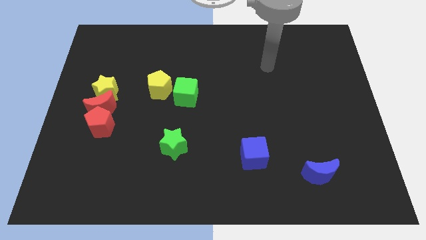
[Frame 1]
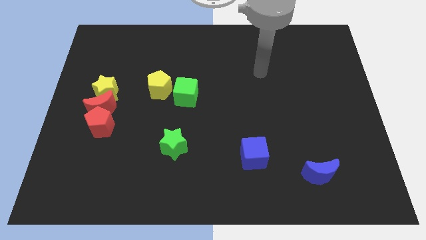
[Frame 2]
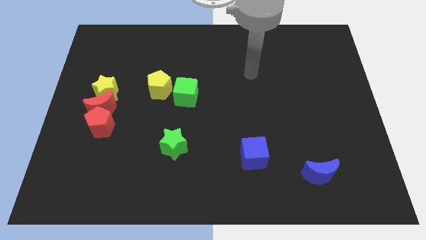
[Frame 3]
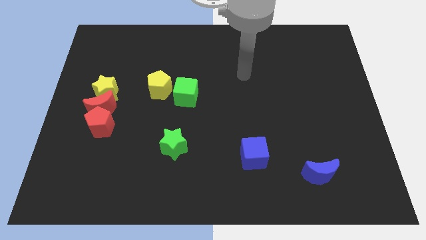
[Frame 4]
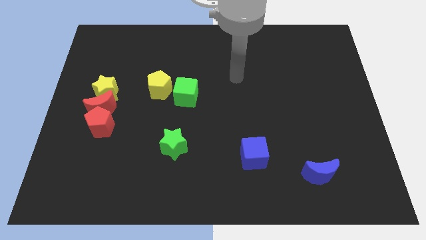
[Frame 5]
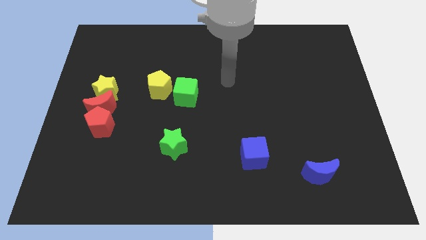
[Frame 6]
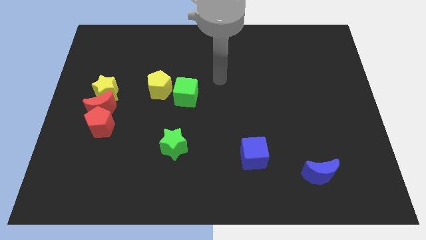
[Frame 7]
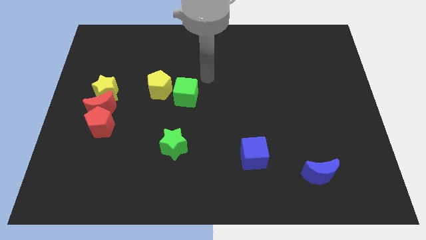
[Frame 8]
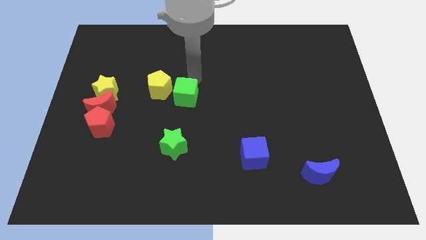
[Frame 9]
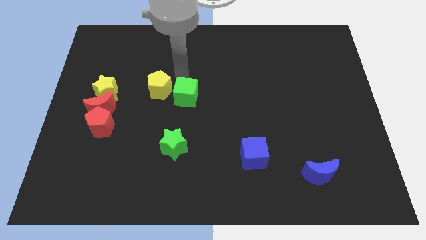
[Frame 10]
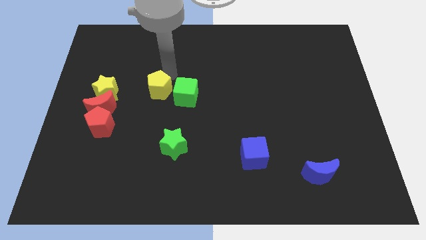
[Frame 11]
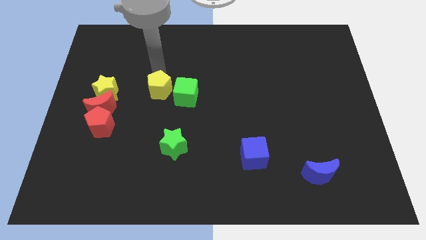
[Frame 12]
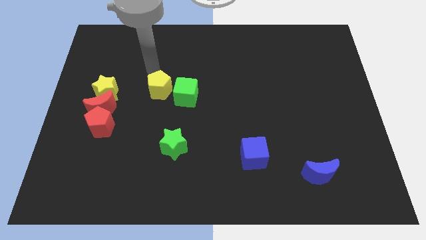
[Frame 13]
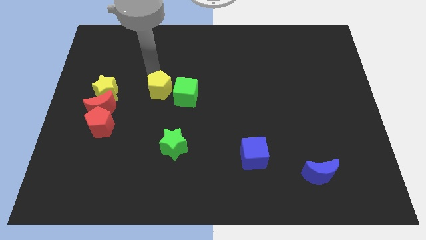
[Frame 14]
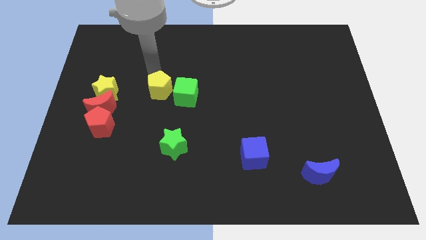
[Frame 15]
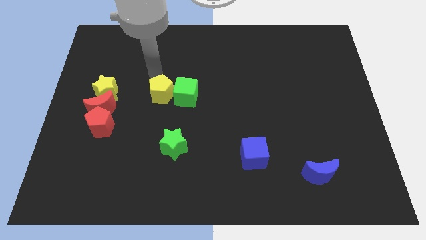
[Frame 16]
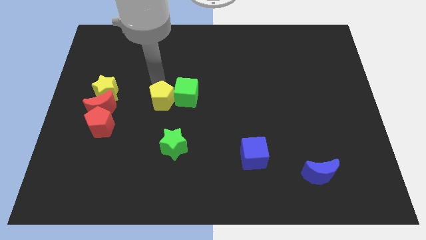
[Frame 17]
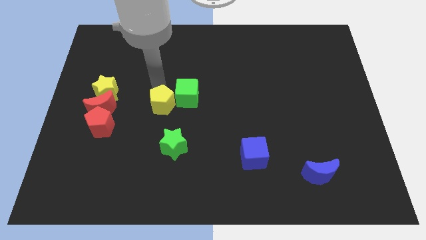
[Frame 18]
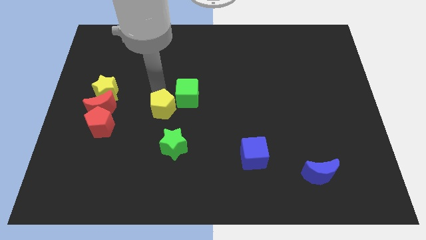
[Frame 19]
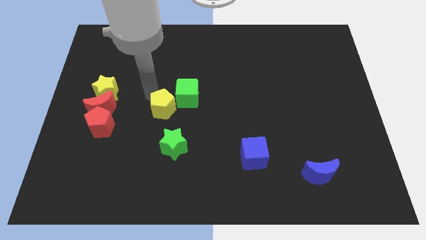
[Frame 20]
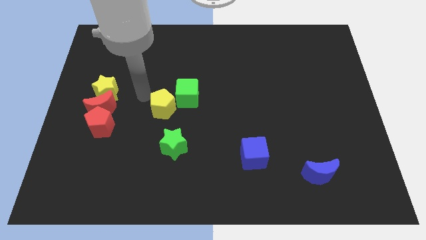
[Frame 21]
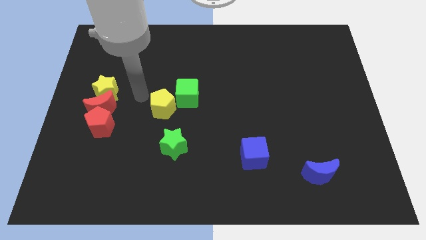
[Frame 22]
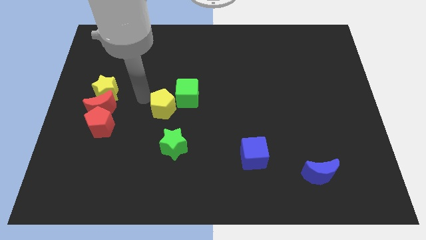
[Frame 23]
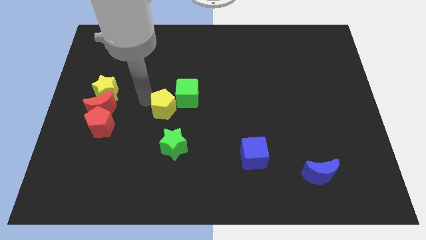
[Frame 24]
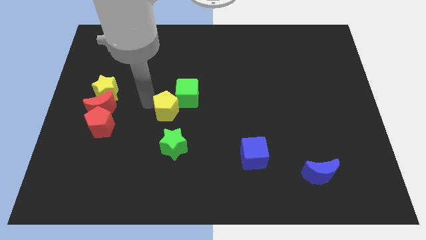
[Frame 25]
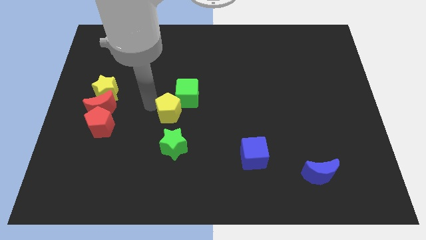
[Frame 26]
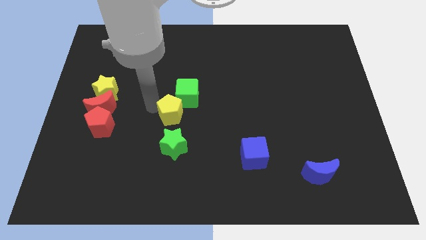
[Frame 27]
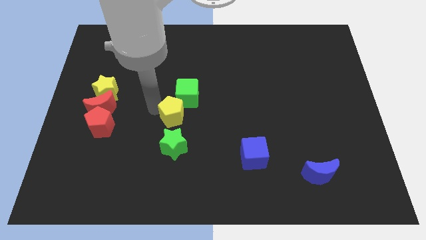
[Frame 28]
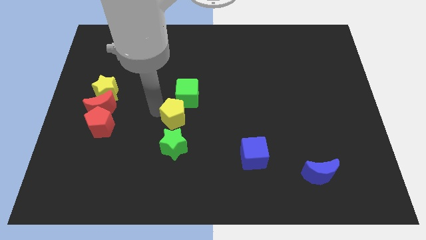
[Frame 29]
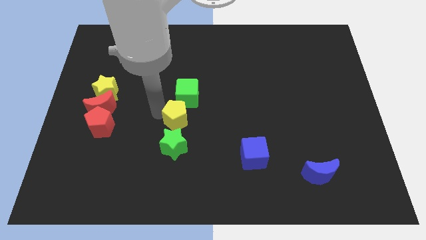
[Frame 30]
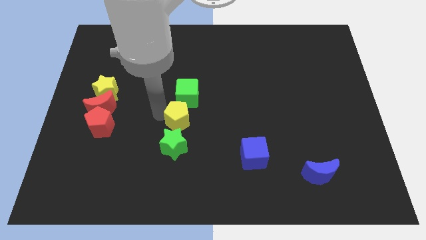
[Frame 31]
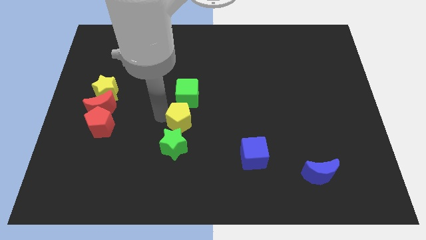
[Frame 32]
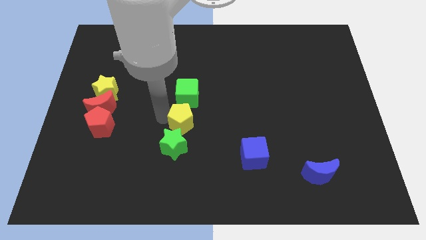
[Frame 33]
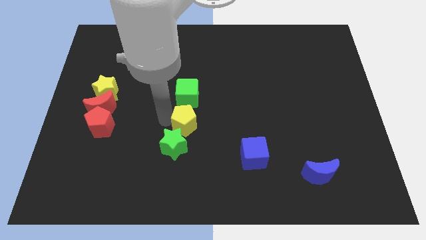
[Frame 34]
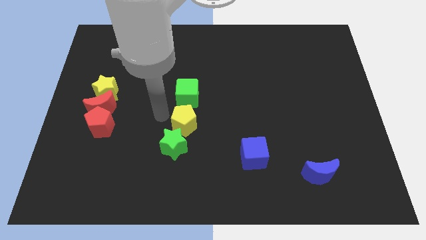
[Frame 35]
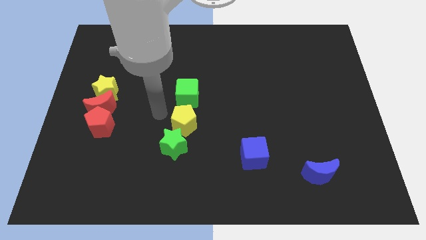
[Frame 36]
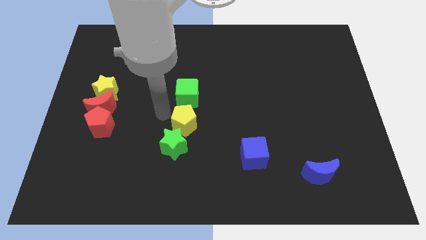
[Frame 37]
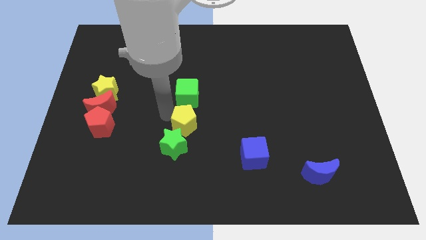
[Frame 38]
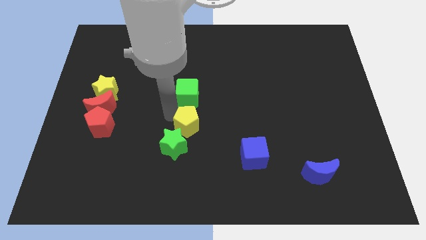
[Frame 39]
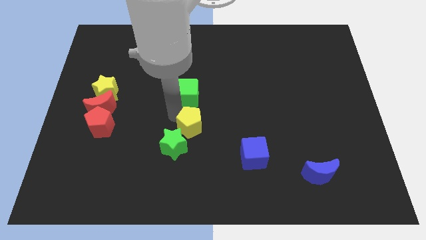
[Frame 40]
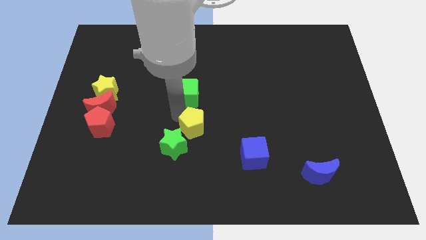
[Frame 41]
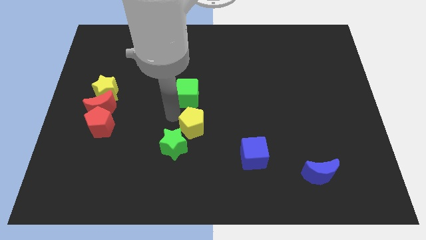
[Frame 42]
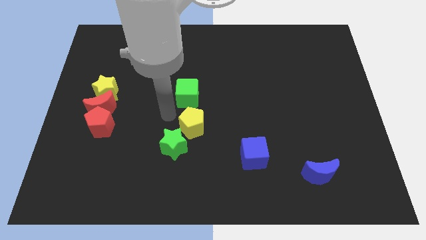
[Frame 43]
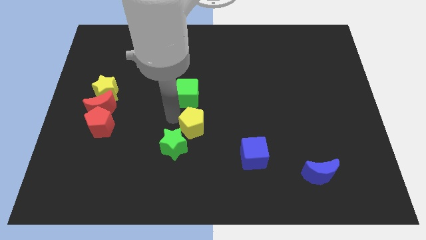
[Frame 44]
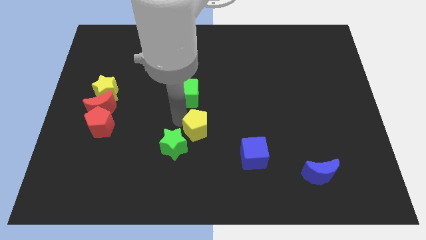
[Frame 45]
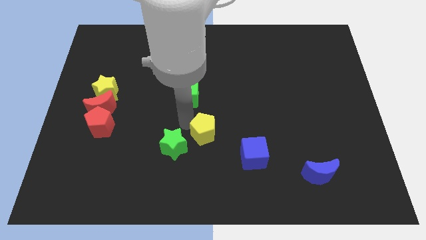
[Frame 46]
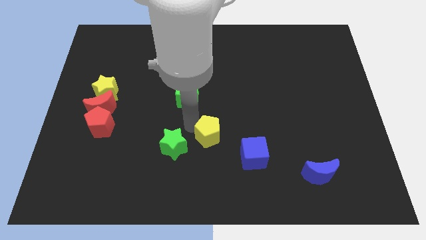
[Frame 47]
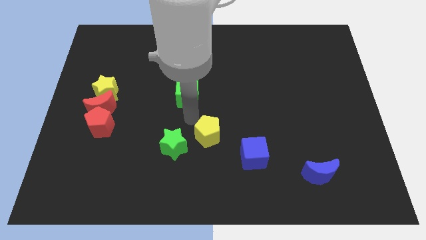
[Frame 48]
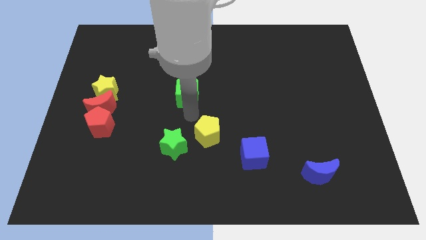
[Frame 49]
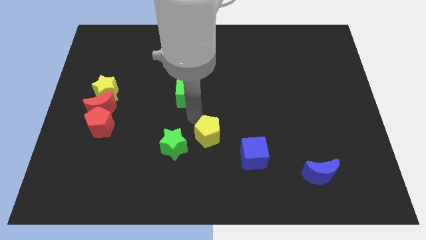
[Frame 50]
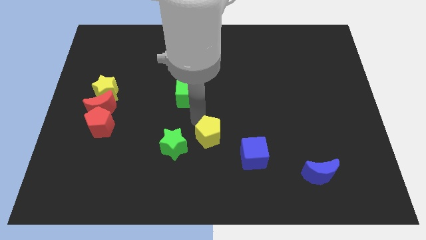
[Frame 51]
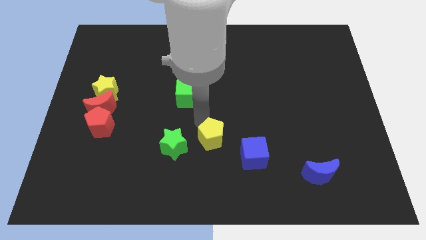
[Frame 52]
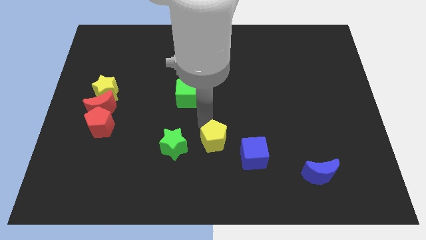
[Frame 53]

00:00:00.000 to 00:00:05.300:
push the yellow pentagon down and right diagonally

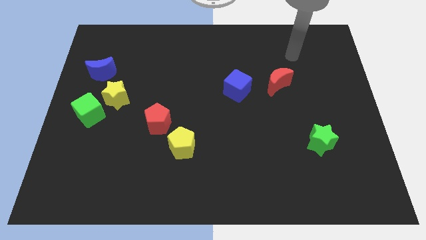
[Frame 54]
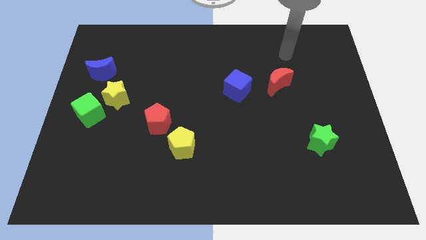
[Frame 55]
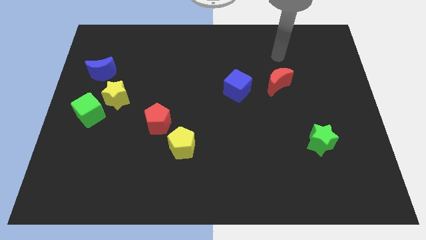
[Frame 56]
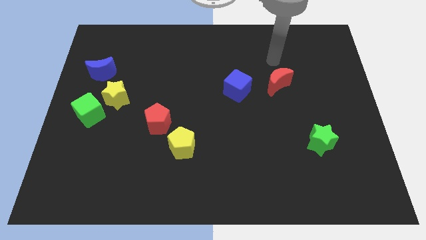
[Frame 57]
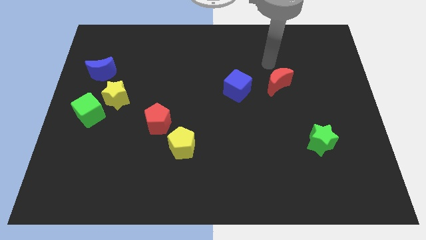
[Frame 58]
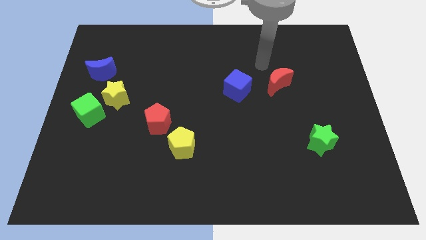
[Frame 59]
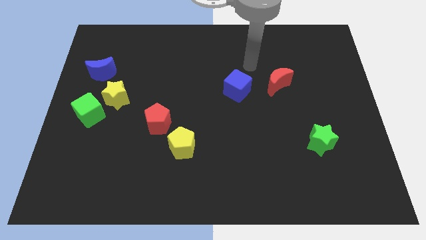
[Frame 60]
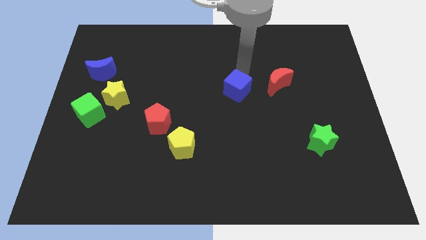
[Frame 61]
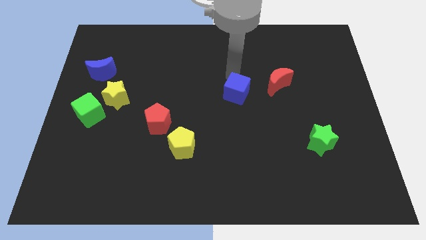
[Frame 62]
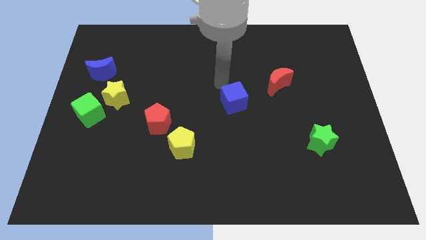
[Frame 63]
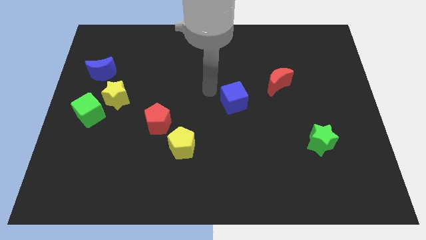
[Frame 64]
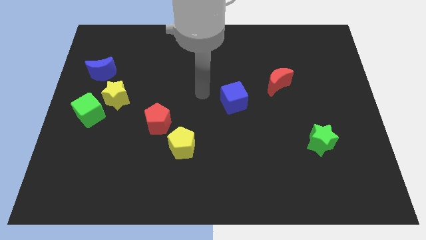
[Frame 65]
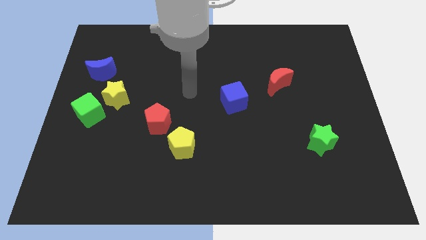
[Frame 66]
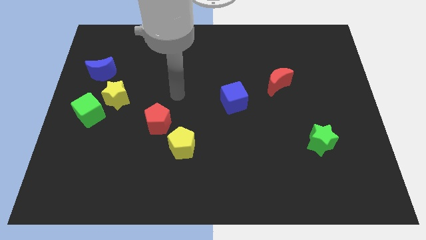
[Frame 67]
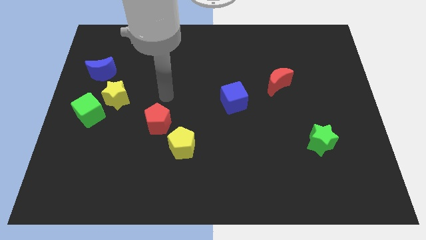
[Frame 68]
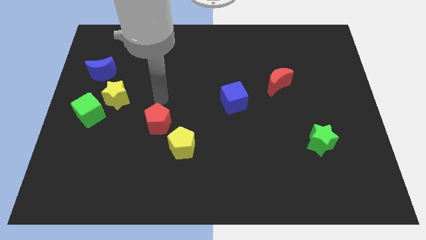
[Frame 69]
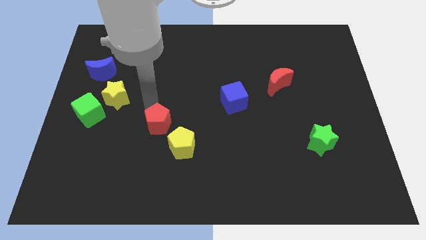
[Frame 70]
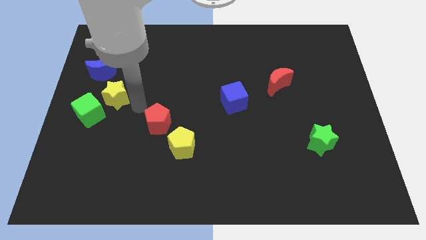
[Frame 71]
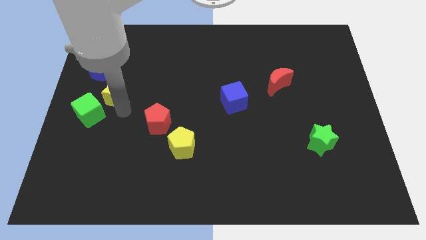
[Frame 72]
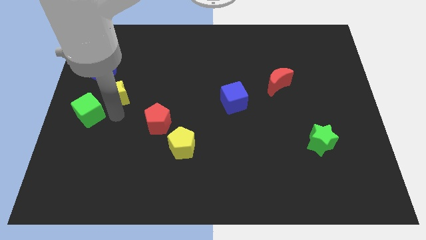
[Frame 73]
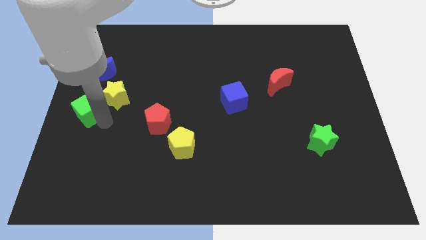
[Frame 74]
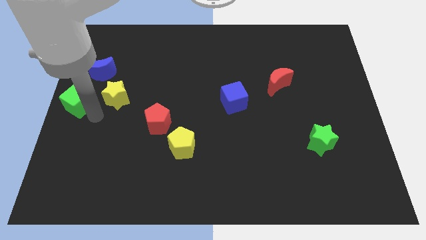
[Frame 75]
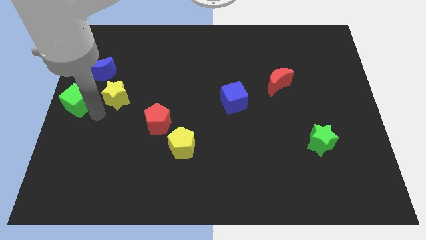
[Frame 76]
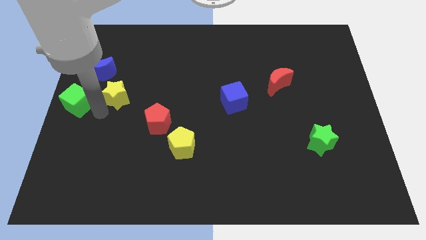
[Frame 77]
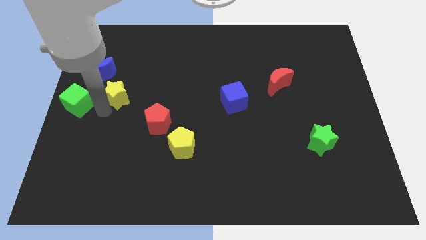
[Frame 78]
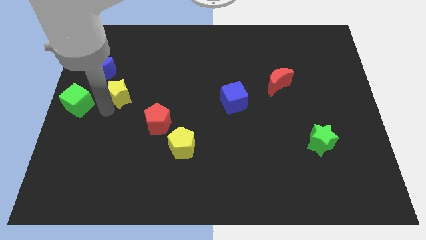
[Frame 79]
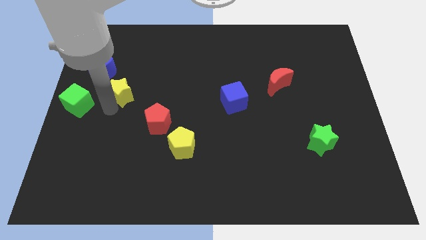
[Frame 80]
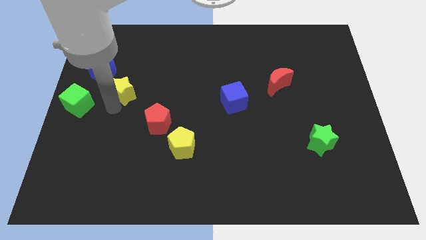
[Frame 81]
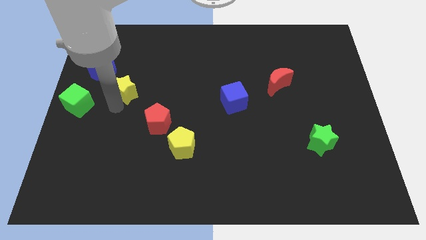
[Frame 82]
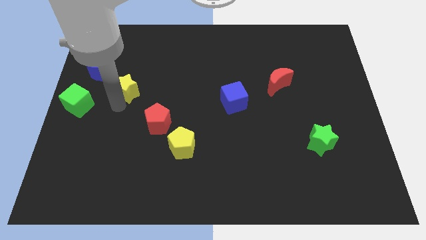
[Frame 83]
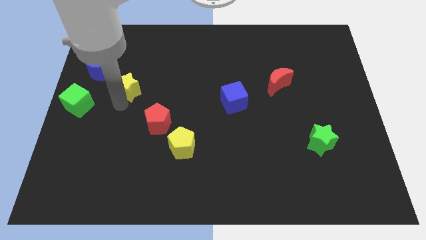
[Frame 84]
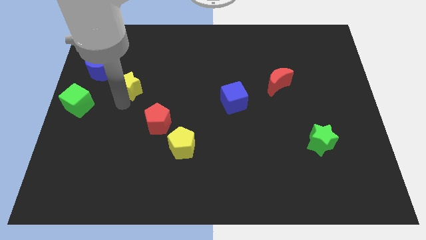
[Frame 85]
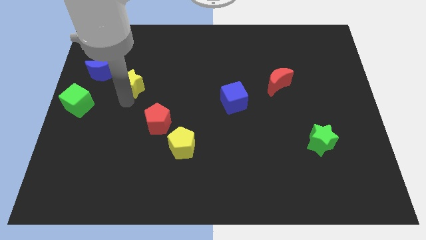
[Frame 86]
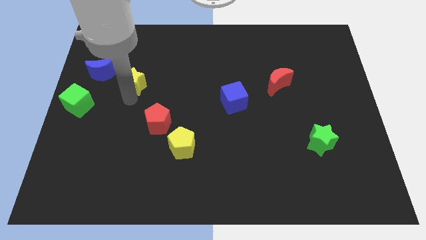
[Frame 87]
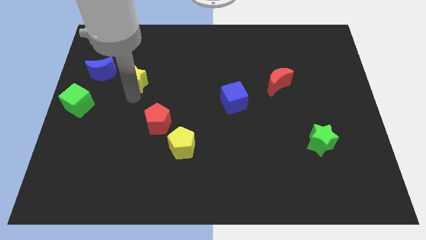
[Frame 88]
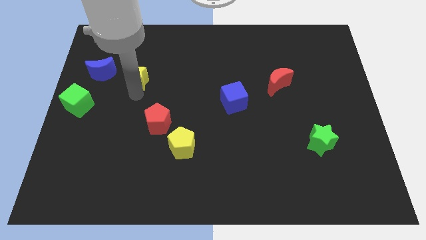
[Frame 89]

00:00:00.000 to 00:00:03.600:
slightly move the yellow star up and then to the right
